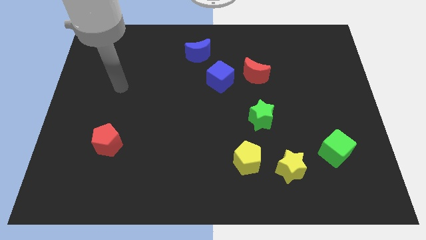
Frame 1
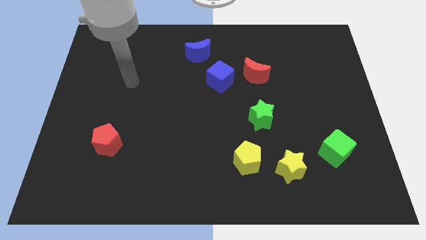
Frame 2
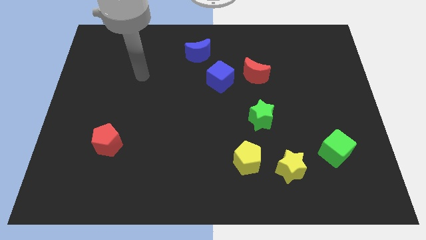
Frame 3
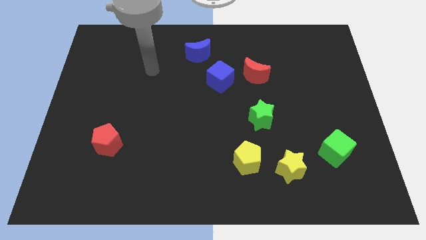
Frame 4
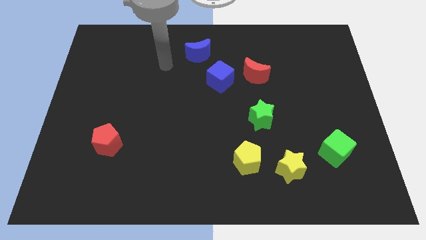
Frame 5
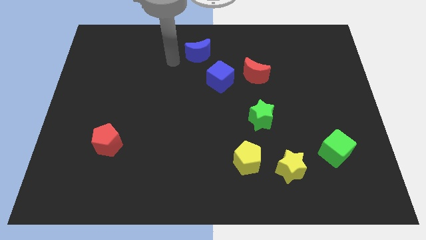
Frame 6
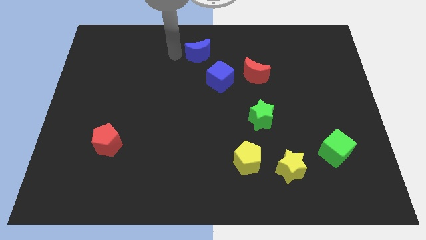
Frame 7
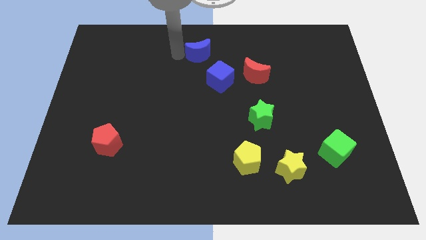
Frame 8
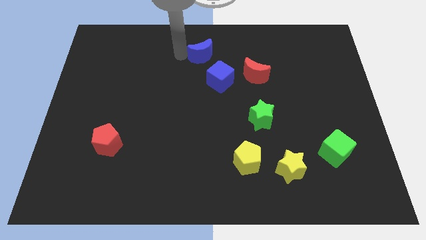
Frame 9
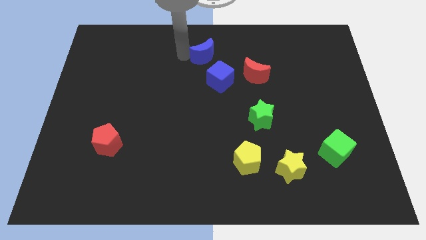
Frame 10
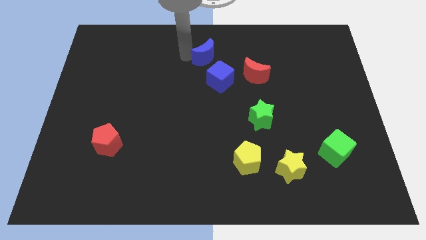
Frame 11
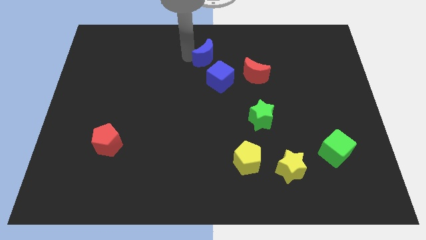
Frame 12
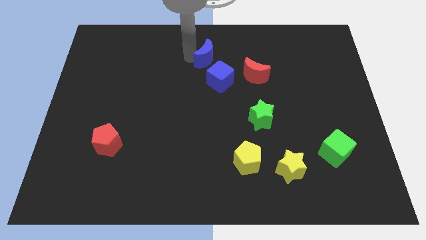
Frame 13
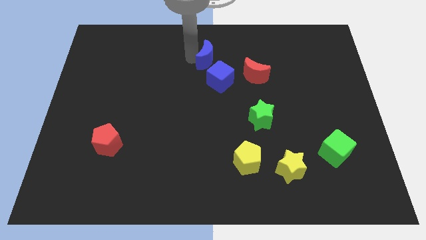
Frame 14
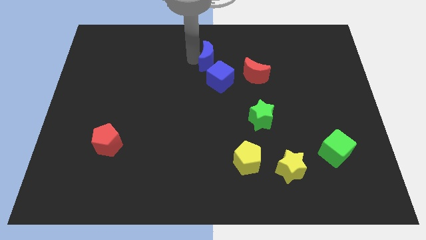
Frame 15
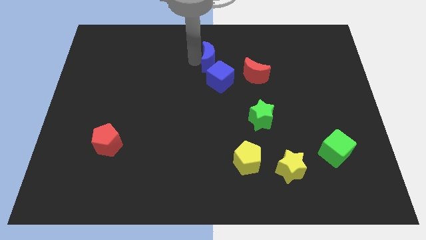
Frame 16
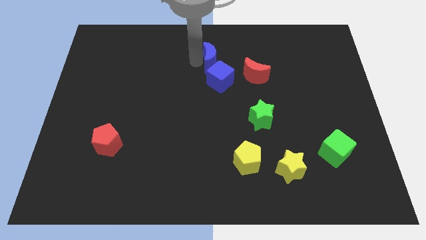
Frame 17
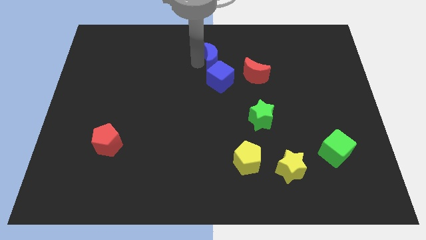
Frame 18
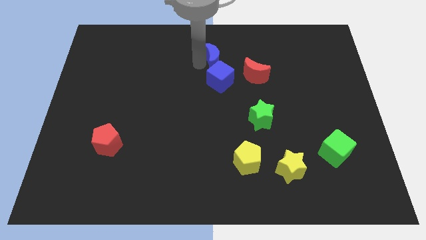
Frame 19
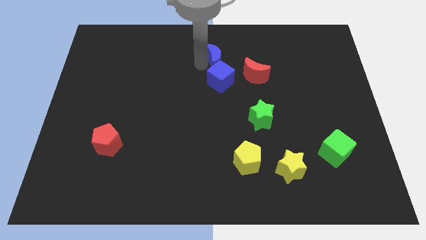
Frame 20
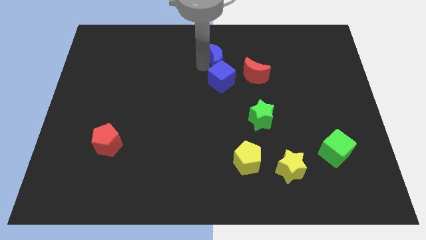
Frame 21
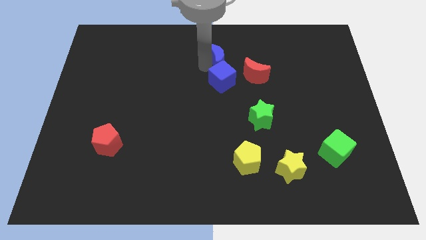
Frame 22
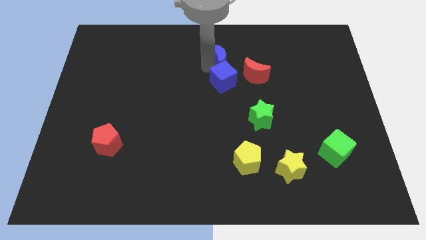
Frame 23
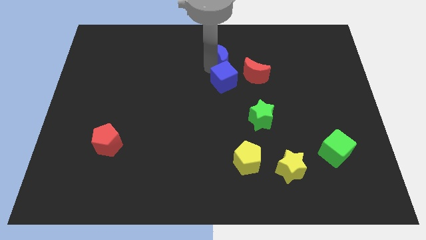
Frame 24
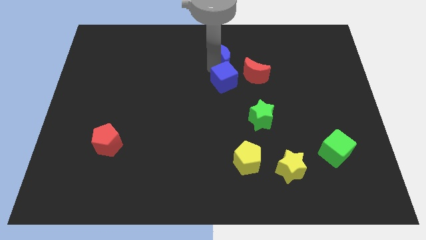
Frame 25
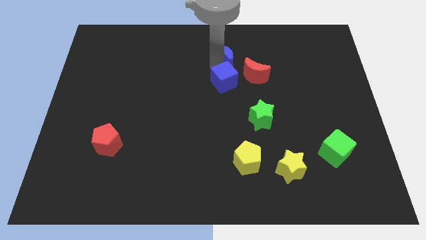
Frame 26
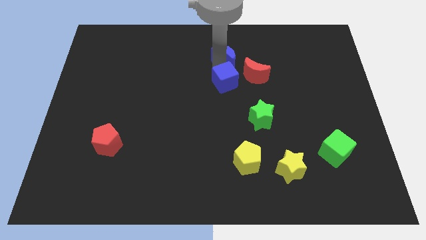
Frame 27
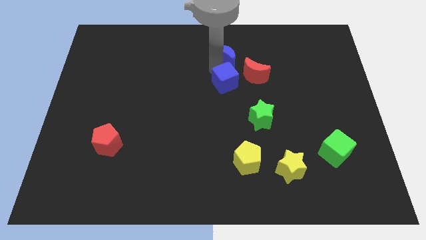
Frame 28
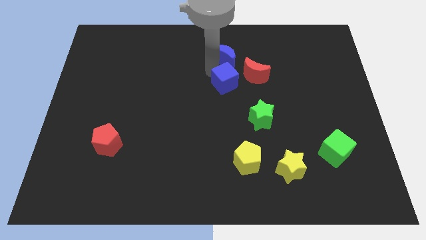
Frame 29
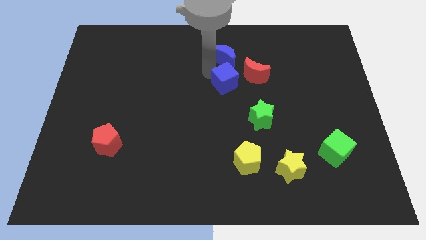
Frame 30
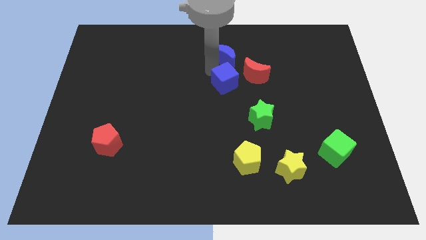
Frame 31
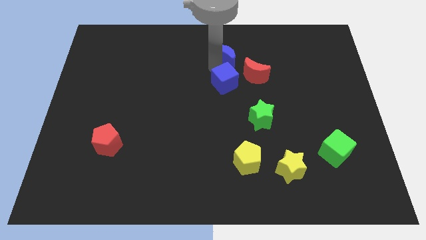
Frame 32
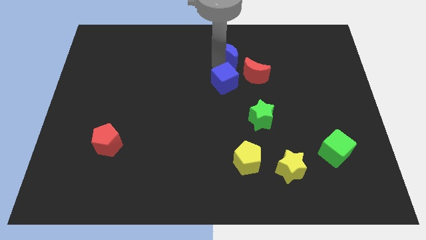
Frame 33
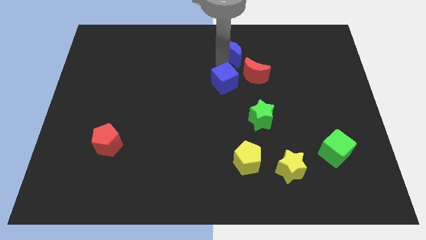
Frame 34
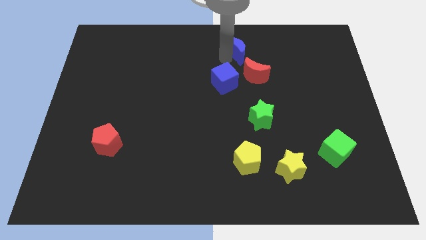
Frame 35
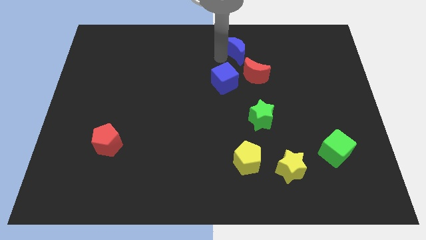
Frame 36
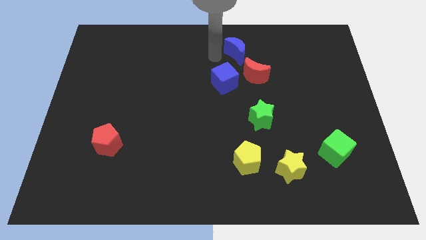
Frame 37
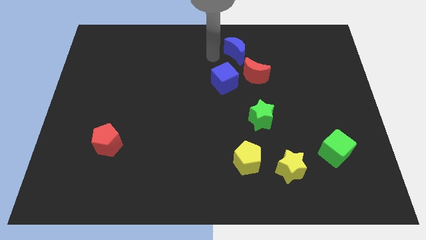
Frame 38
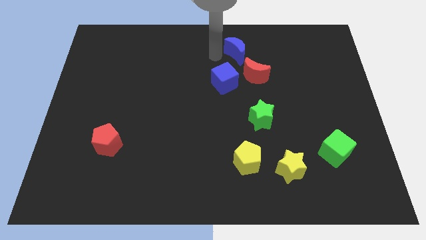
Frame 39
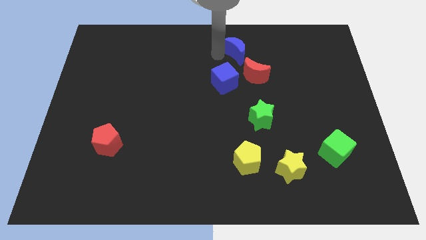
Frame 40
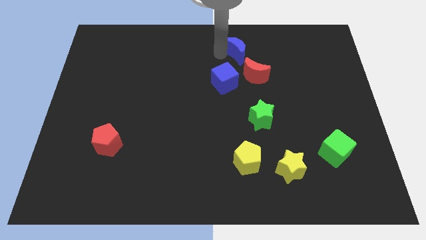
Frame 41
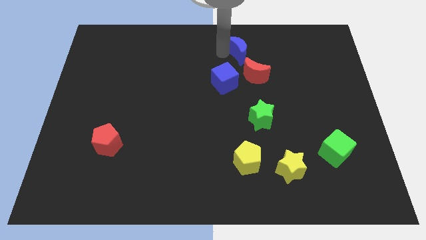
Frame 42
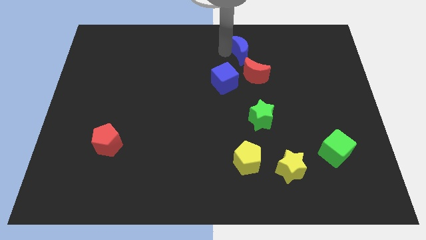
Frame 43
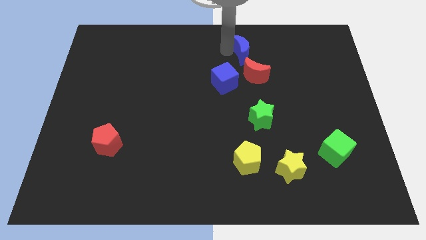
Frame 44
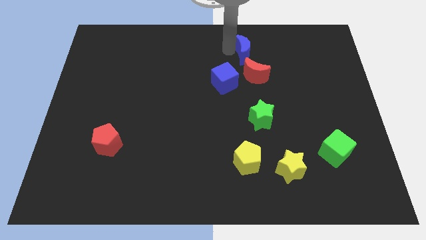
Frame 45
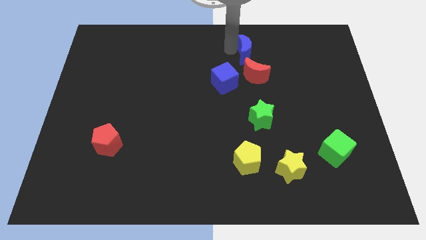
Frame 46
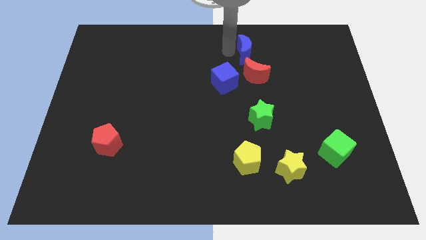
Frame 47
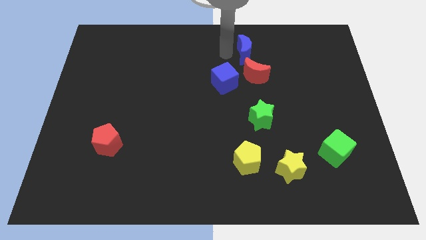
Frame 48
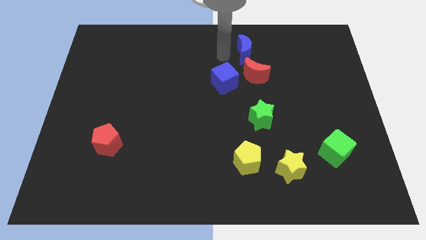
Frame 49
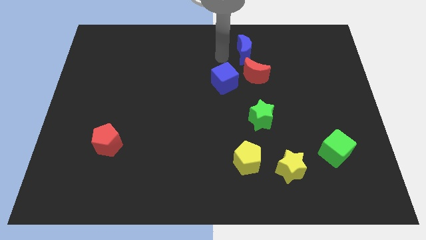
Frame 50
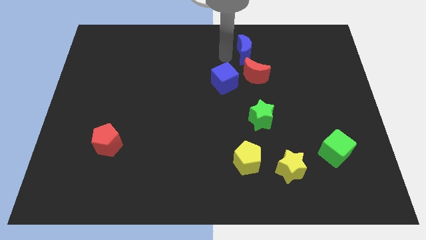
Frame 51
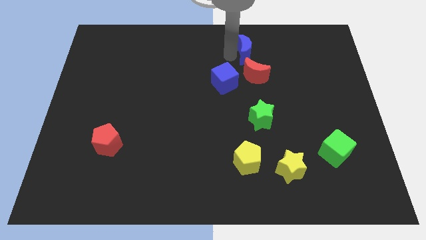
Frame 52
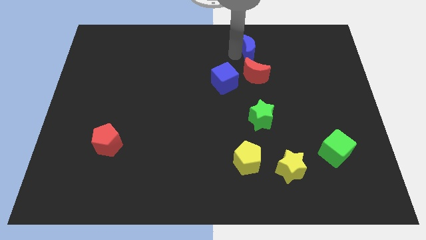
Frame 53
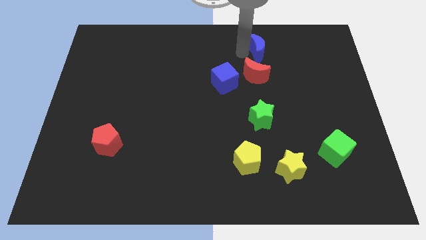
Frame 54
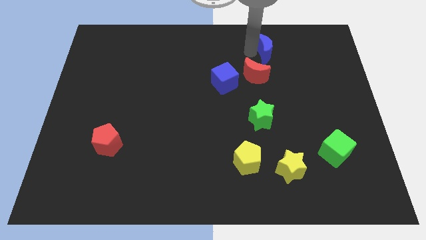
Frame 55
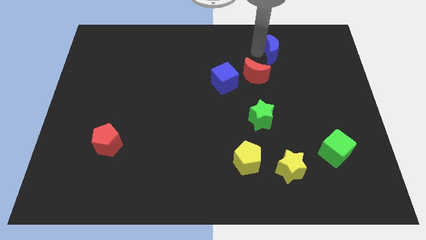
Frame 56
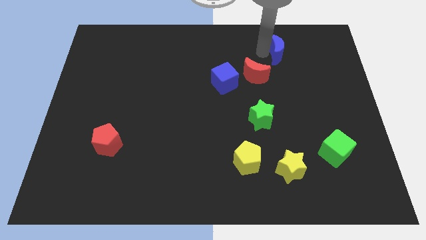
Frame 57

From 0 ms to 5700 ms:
move the blue moon right

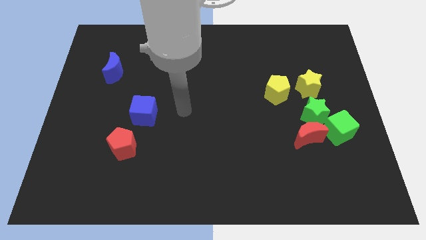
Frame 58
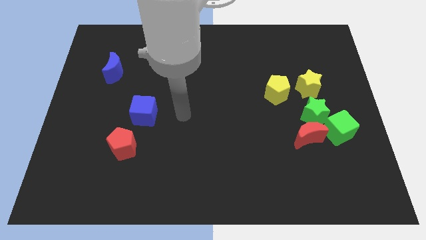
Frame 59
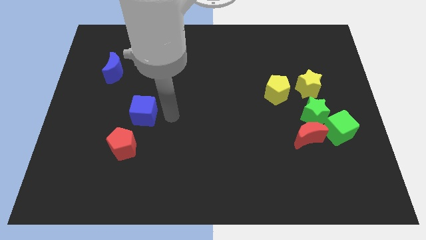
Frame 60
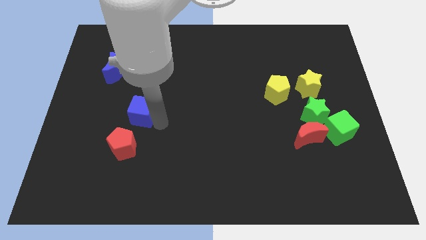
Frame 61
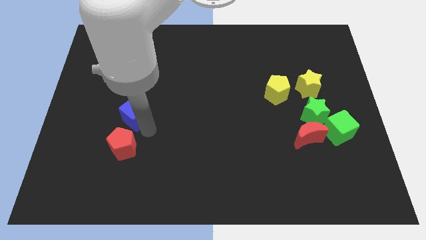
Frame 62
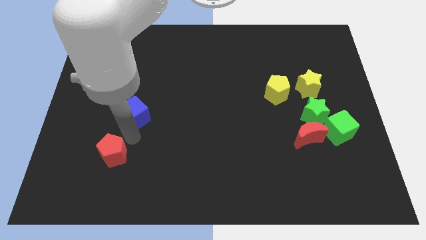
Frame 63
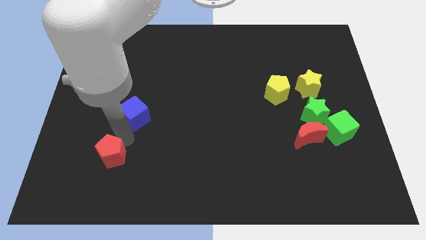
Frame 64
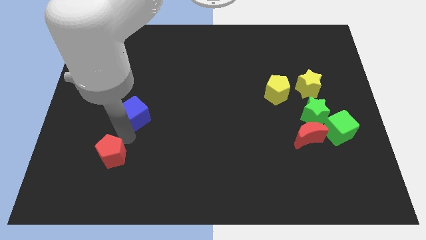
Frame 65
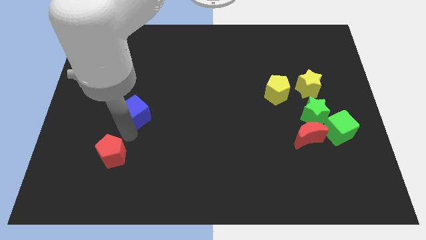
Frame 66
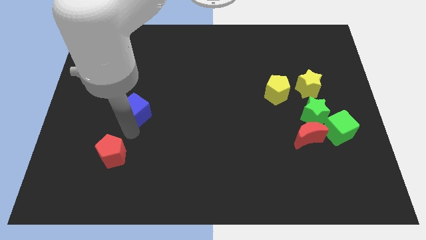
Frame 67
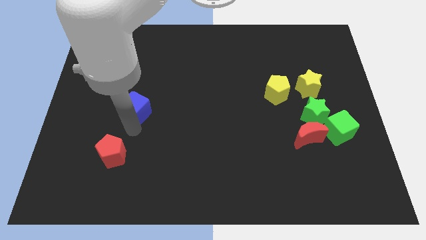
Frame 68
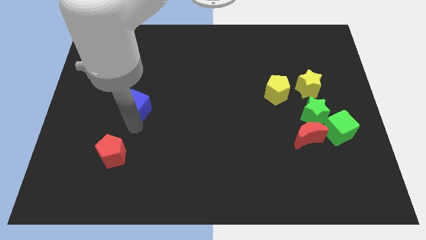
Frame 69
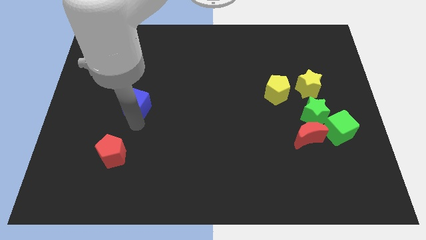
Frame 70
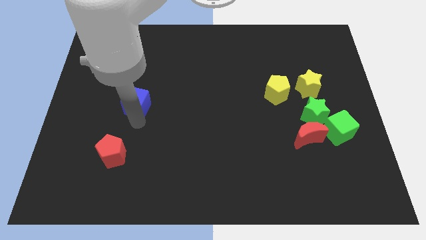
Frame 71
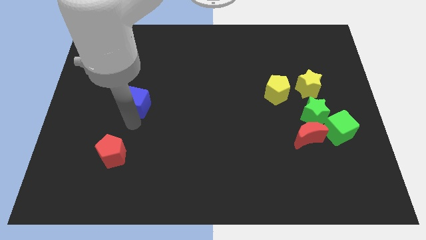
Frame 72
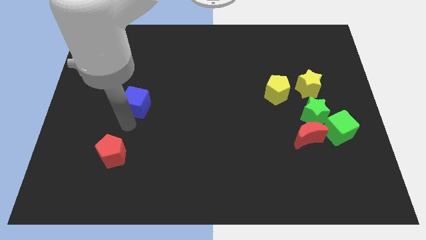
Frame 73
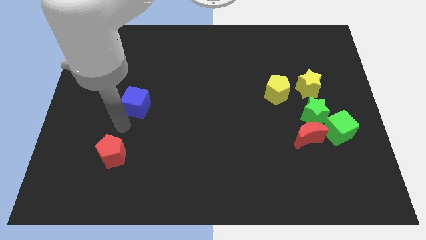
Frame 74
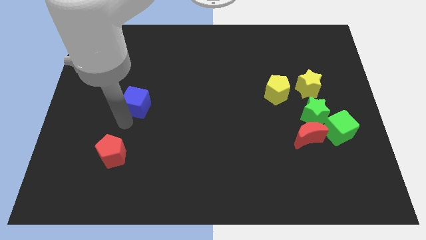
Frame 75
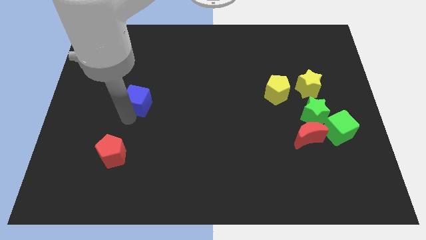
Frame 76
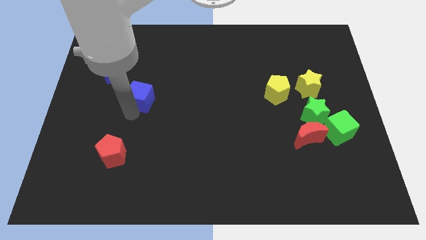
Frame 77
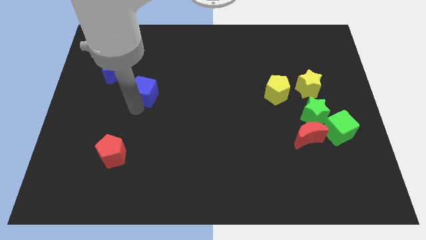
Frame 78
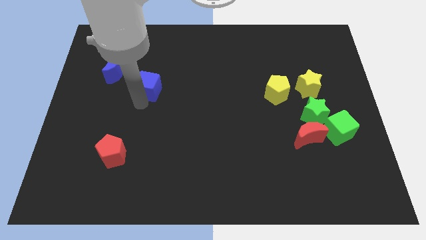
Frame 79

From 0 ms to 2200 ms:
slightly push the blue cube upwards
